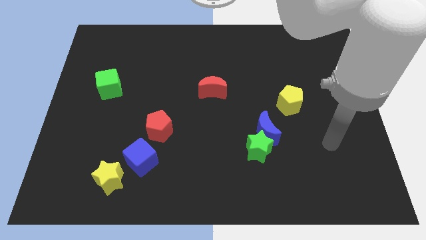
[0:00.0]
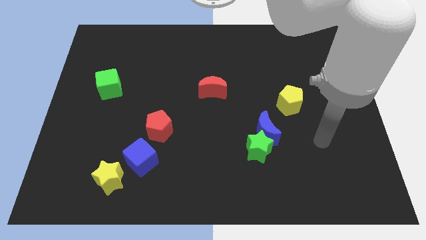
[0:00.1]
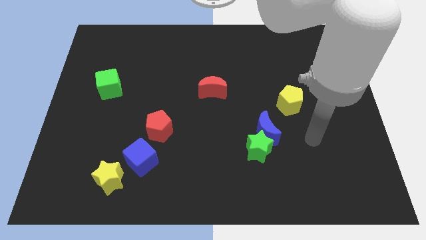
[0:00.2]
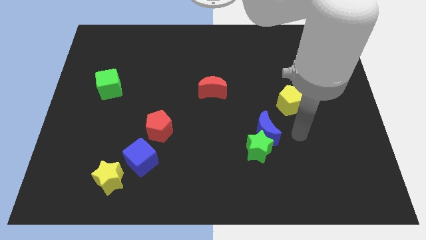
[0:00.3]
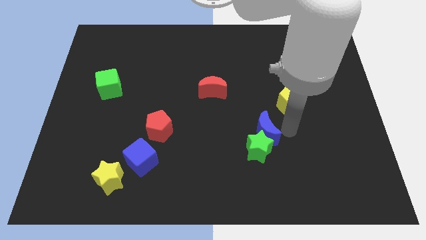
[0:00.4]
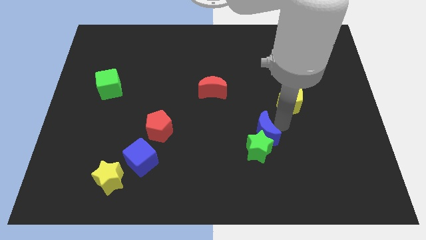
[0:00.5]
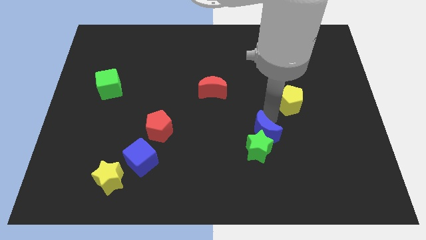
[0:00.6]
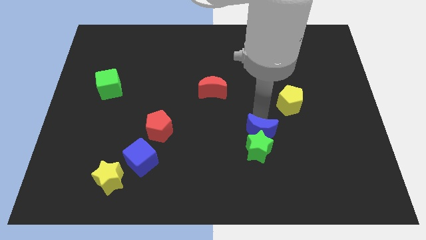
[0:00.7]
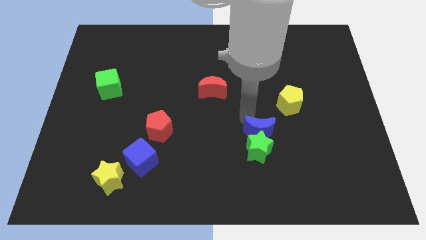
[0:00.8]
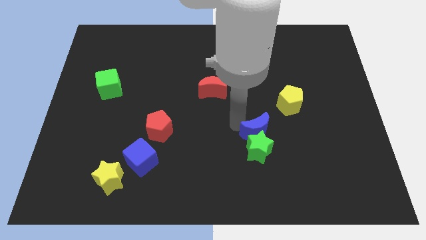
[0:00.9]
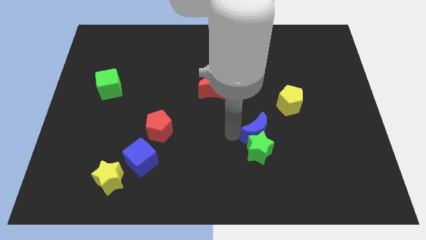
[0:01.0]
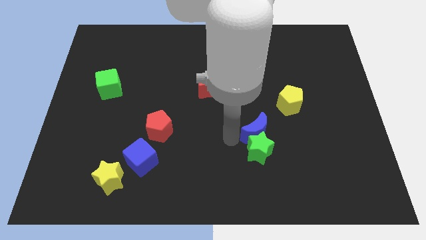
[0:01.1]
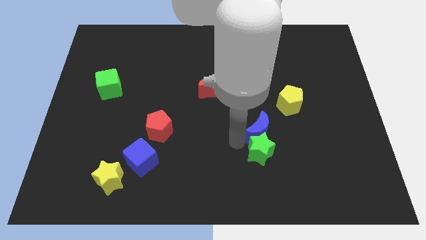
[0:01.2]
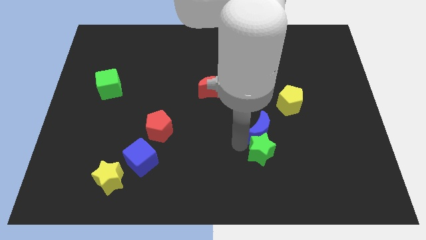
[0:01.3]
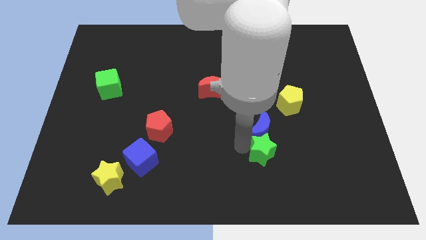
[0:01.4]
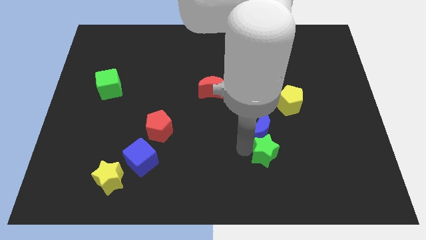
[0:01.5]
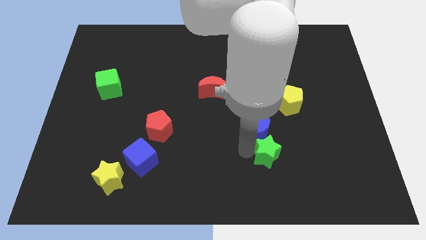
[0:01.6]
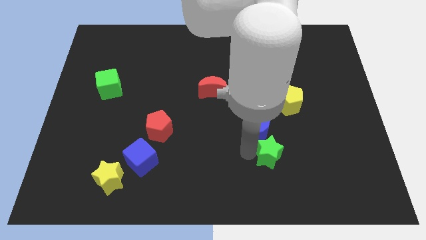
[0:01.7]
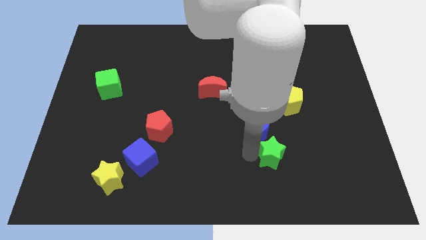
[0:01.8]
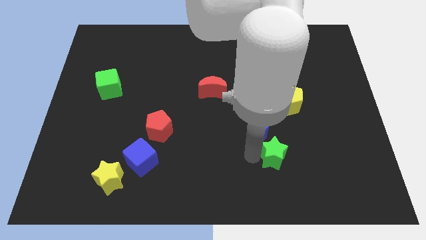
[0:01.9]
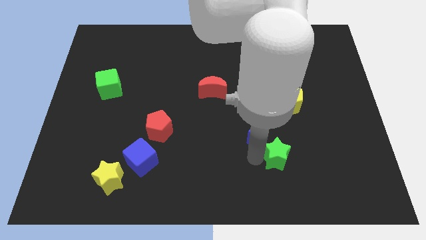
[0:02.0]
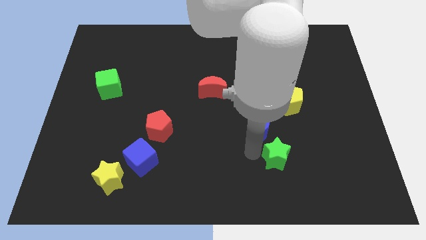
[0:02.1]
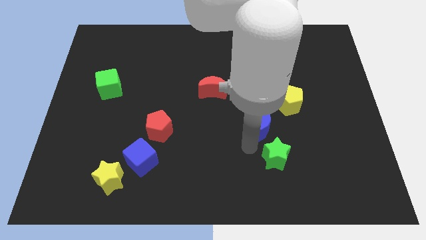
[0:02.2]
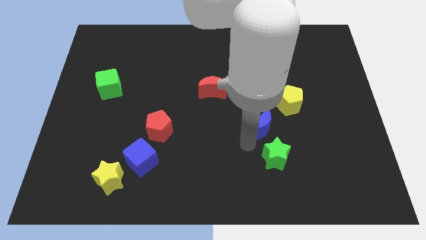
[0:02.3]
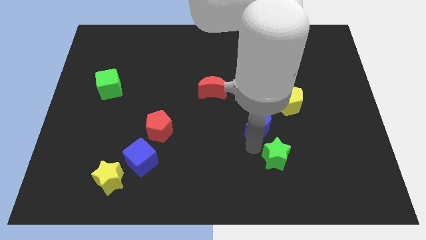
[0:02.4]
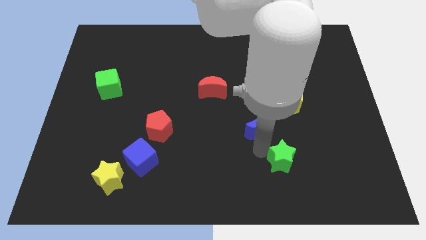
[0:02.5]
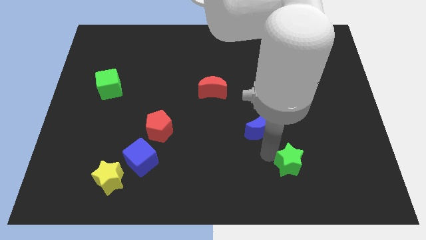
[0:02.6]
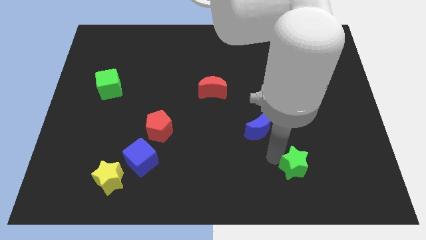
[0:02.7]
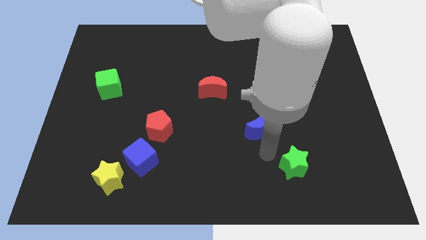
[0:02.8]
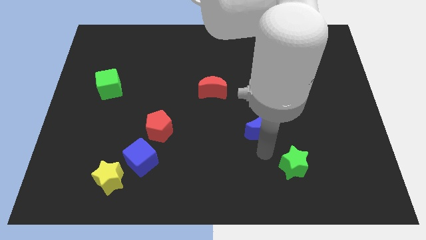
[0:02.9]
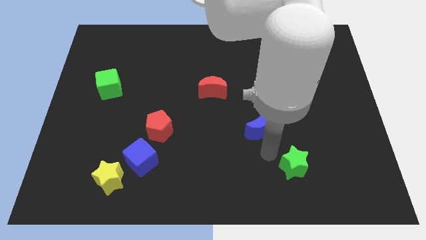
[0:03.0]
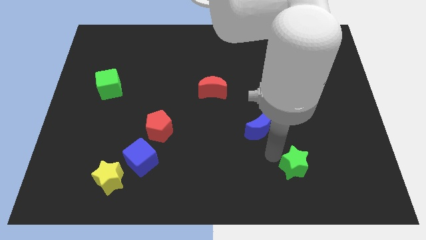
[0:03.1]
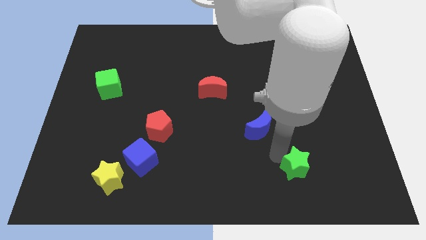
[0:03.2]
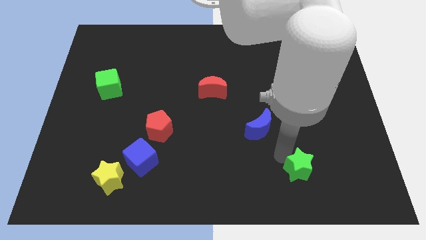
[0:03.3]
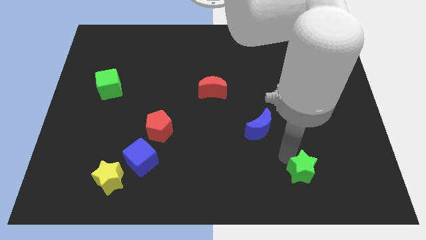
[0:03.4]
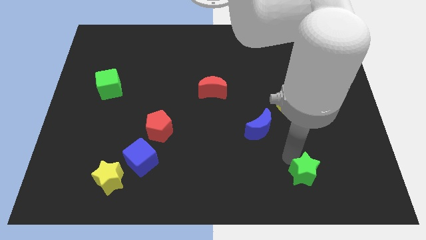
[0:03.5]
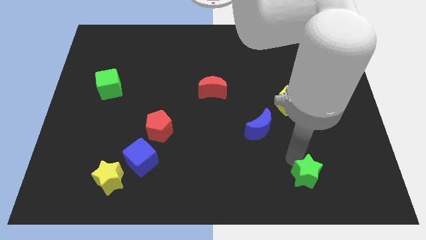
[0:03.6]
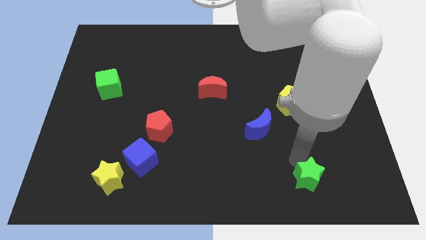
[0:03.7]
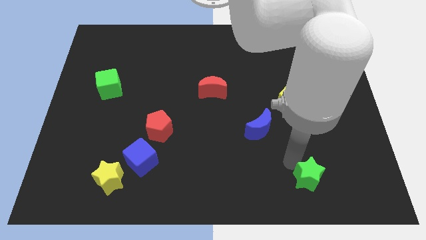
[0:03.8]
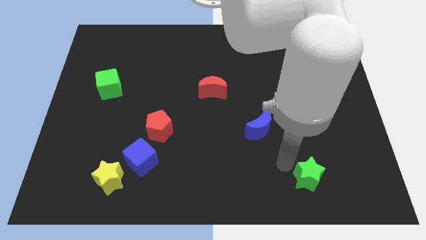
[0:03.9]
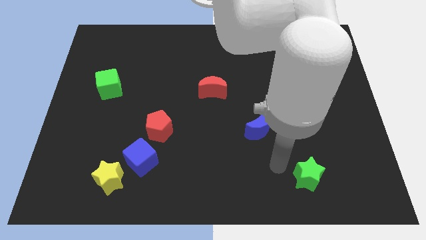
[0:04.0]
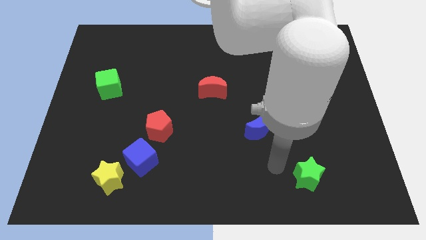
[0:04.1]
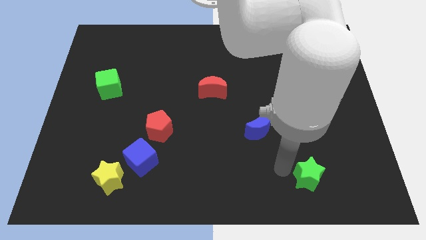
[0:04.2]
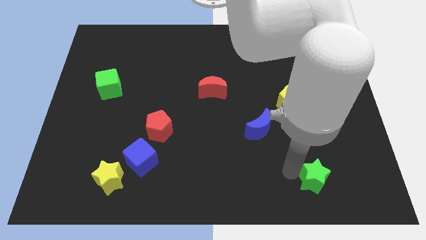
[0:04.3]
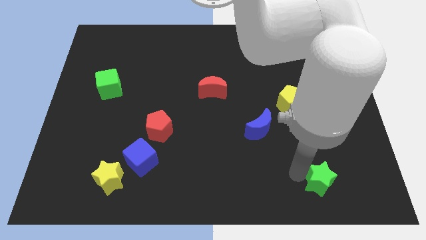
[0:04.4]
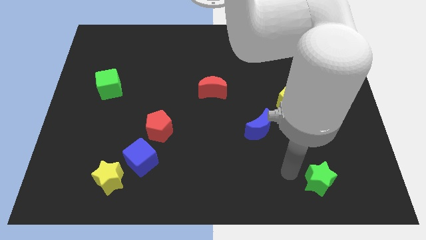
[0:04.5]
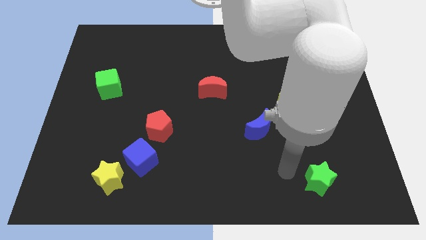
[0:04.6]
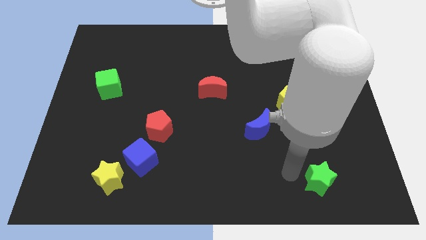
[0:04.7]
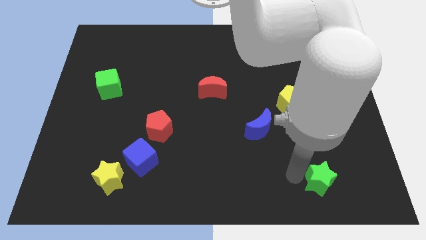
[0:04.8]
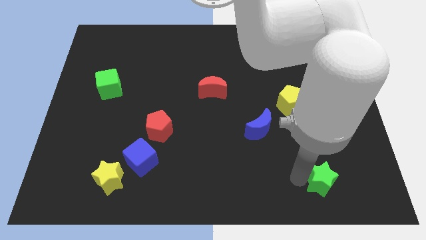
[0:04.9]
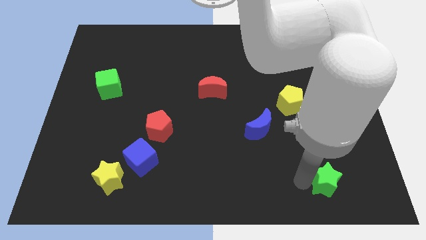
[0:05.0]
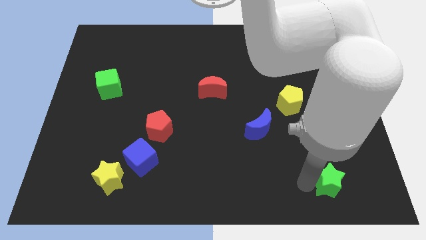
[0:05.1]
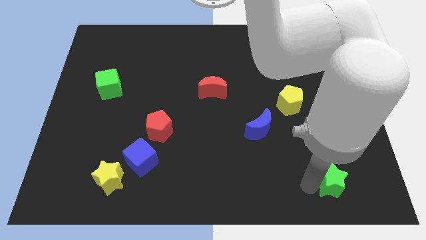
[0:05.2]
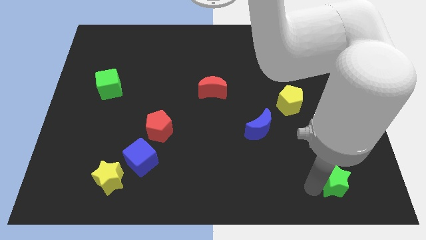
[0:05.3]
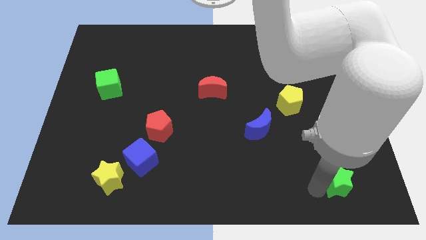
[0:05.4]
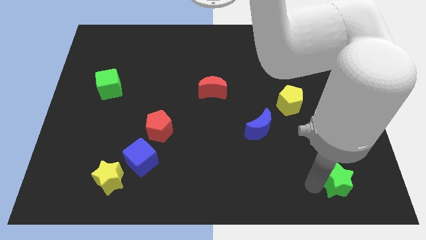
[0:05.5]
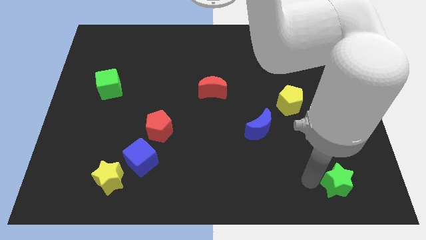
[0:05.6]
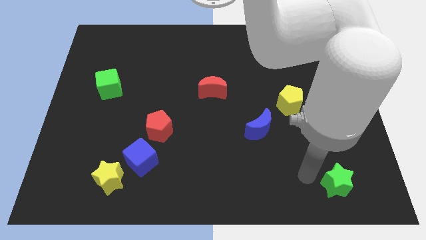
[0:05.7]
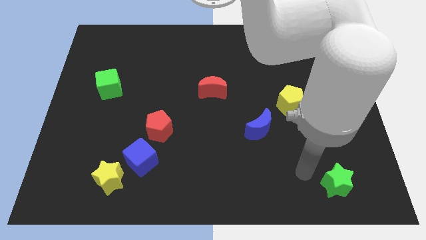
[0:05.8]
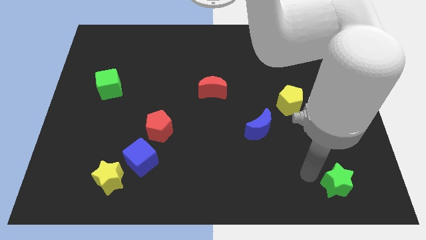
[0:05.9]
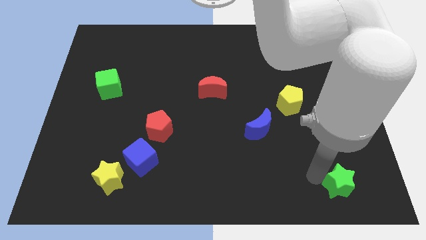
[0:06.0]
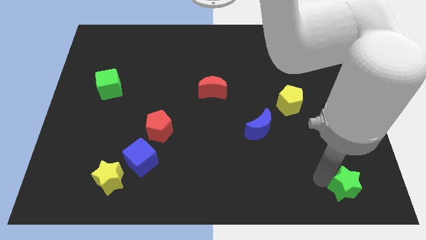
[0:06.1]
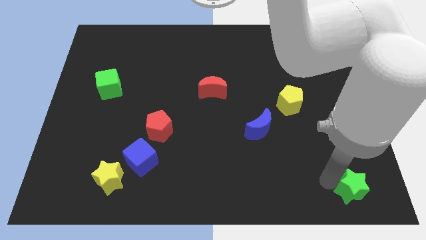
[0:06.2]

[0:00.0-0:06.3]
slide the green star to the bottom right corner
